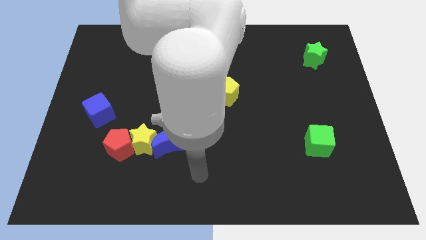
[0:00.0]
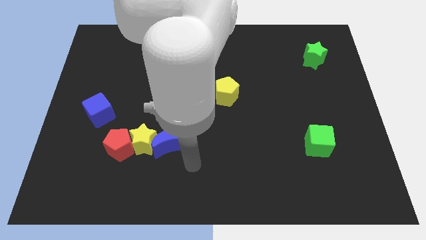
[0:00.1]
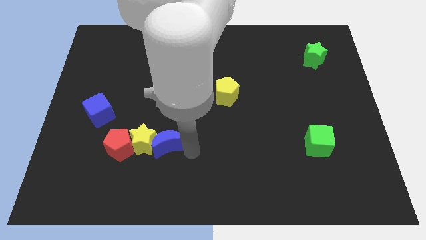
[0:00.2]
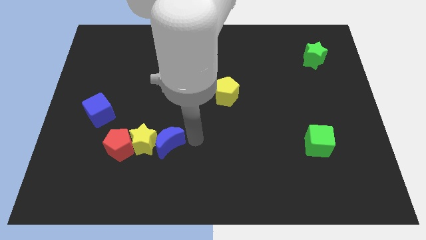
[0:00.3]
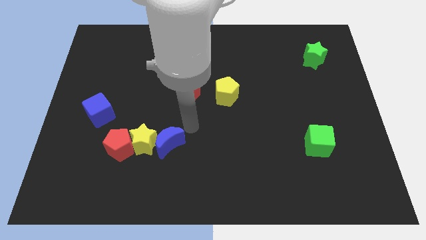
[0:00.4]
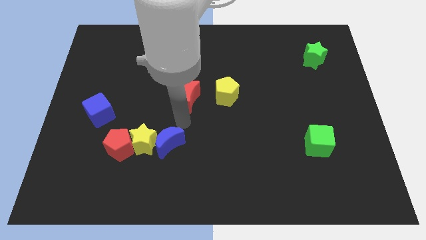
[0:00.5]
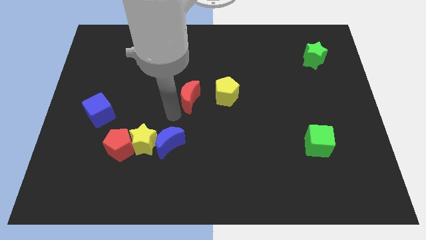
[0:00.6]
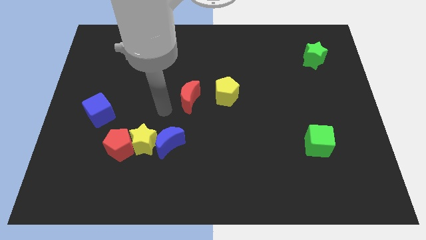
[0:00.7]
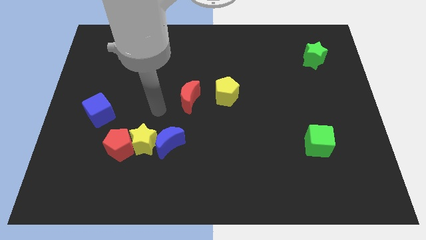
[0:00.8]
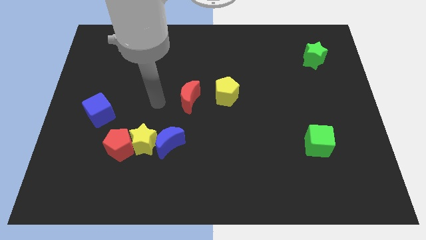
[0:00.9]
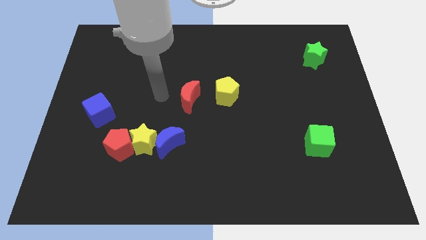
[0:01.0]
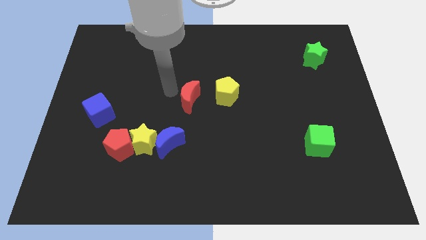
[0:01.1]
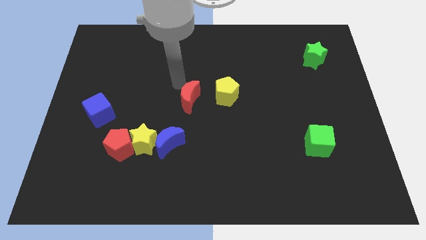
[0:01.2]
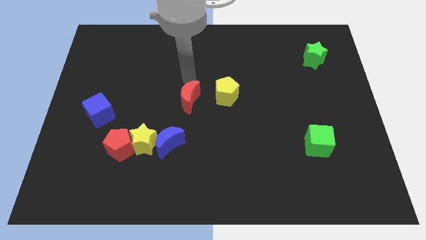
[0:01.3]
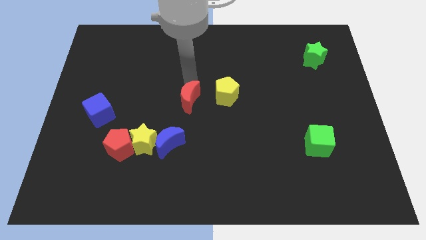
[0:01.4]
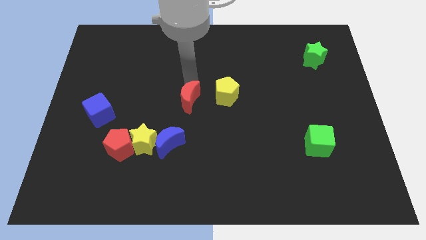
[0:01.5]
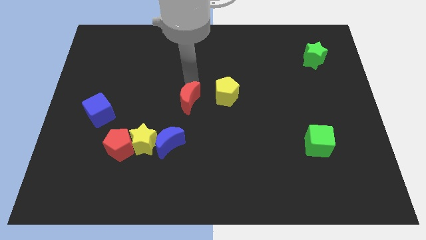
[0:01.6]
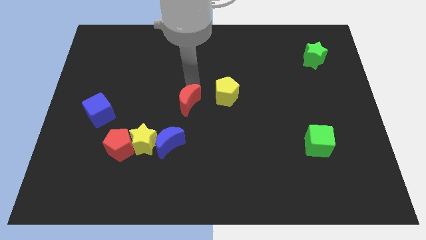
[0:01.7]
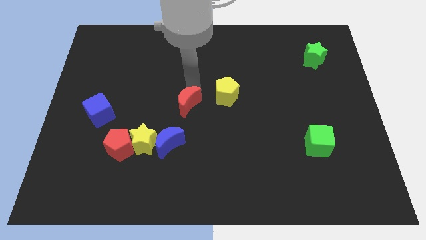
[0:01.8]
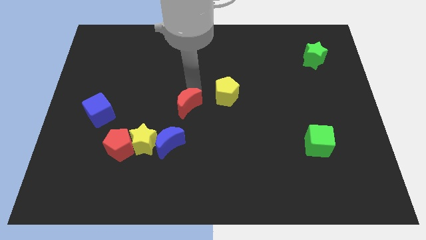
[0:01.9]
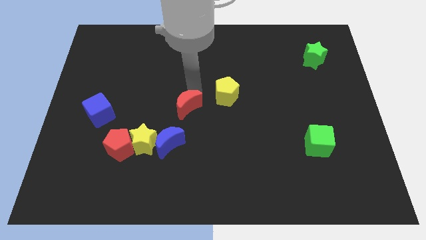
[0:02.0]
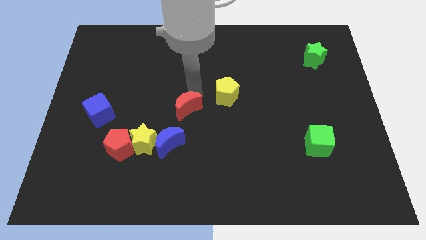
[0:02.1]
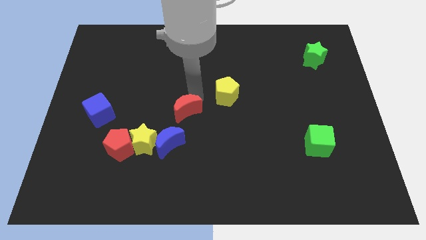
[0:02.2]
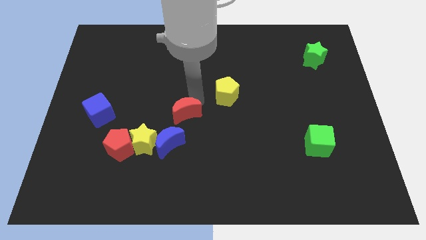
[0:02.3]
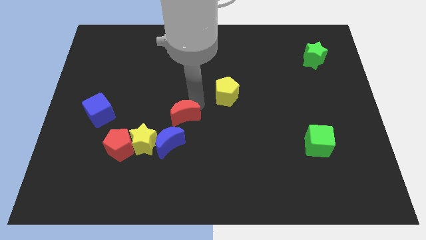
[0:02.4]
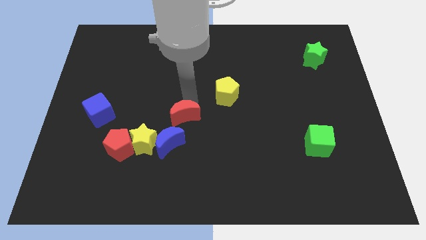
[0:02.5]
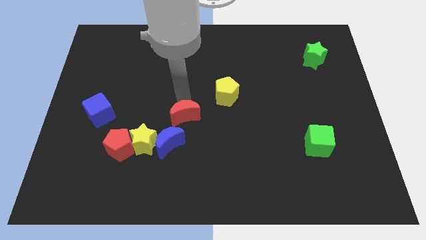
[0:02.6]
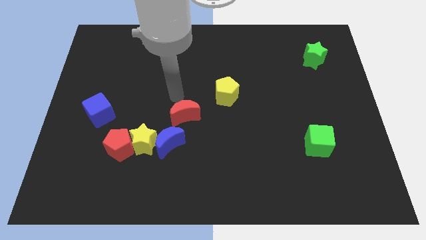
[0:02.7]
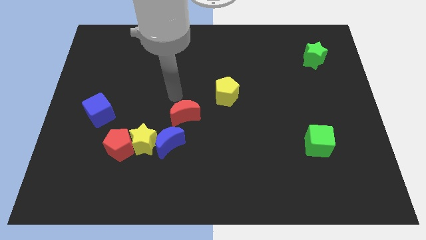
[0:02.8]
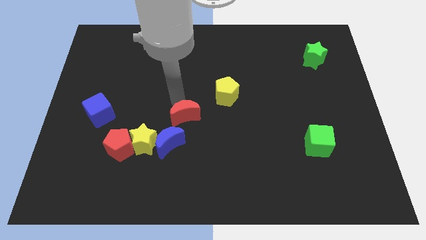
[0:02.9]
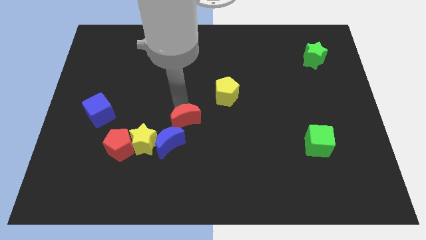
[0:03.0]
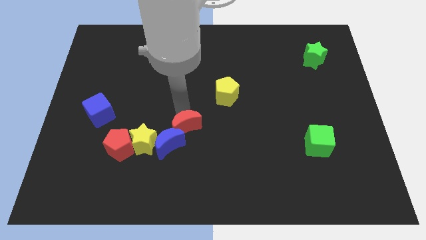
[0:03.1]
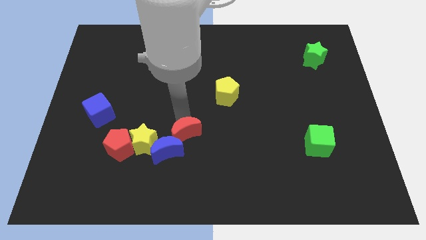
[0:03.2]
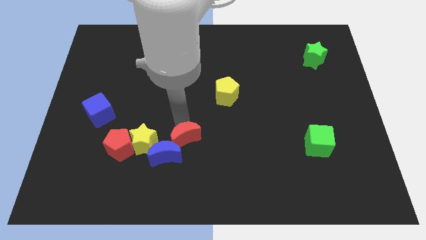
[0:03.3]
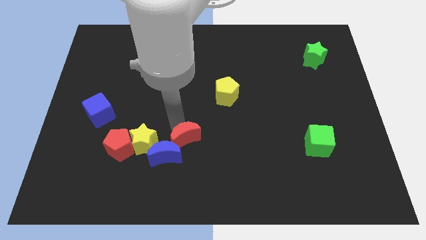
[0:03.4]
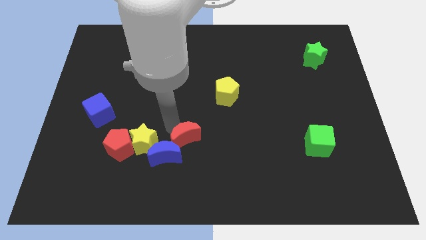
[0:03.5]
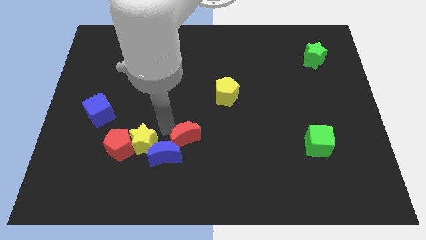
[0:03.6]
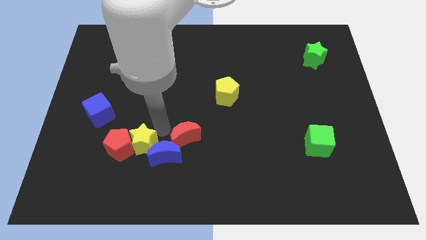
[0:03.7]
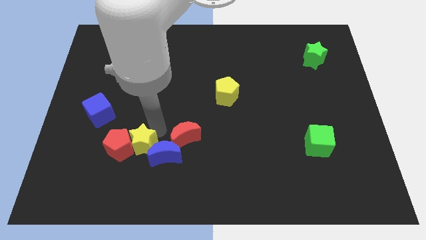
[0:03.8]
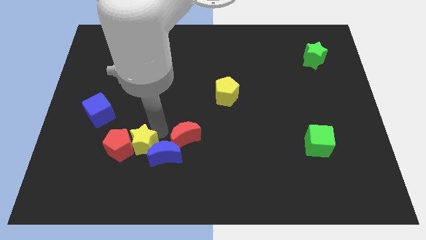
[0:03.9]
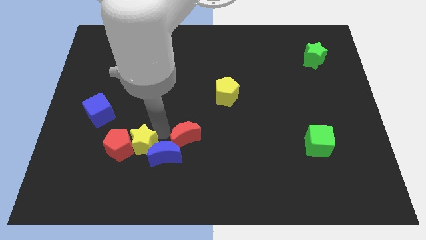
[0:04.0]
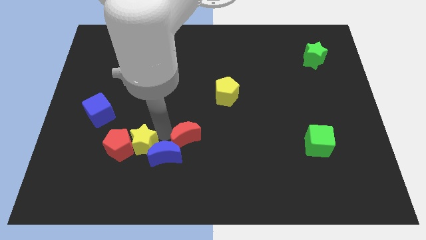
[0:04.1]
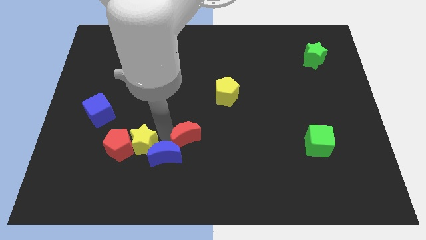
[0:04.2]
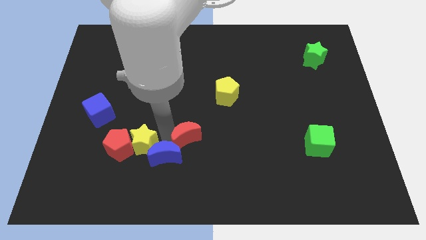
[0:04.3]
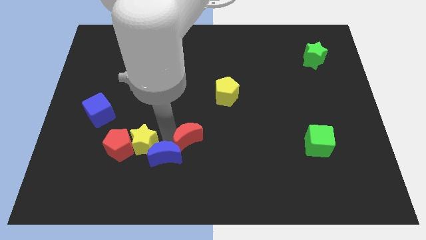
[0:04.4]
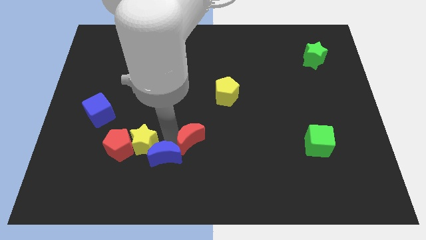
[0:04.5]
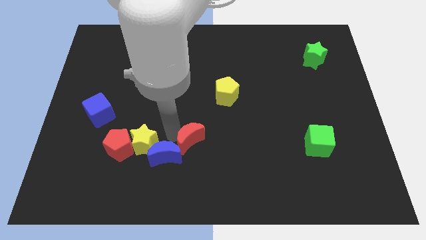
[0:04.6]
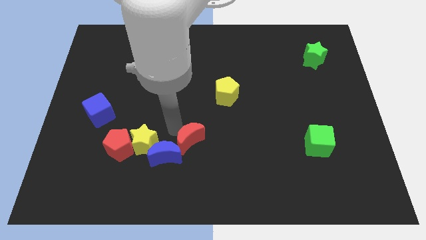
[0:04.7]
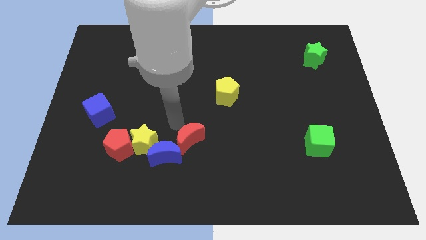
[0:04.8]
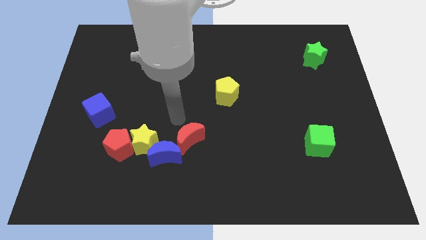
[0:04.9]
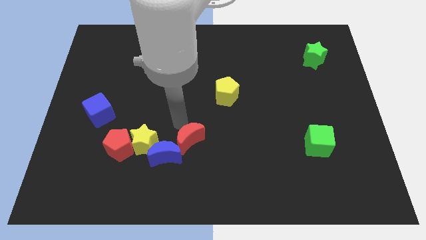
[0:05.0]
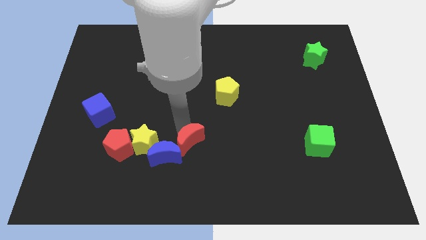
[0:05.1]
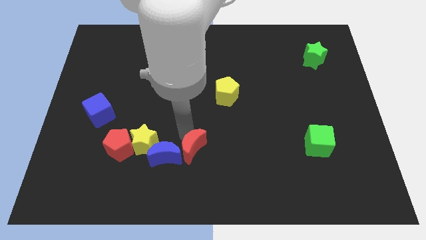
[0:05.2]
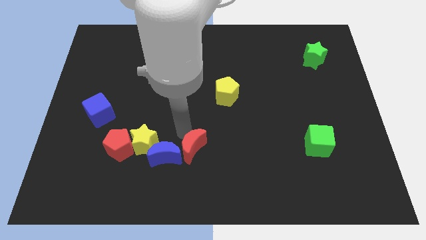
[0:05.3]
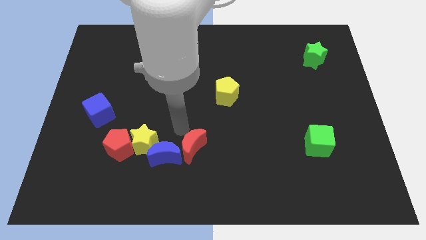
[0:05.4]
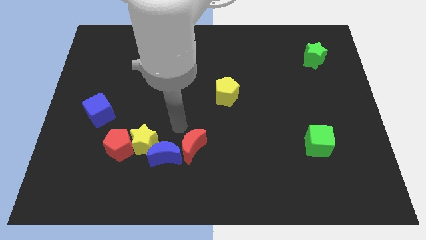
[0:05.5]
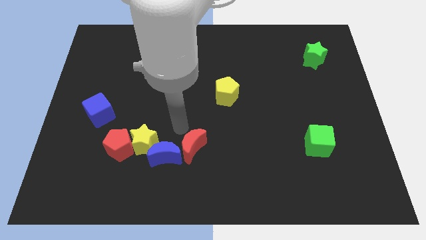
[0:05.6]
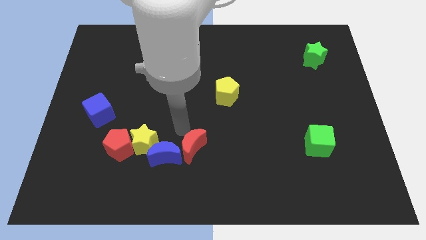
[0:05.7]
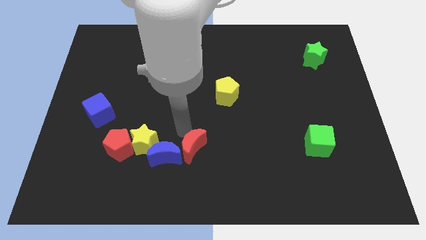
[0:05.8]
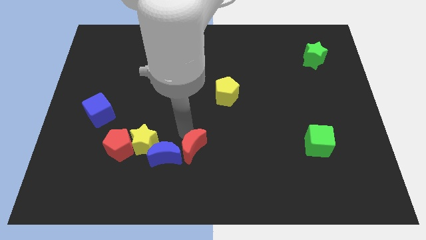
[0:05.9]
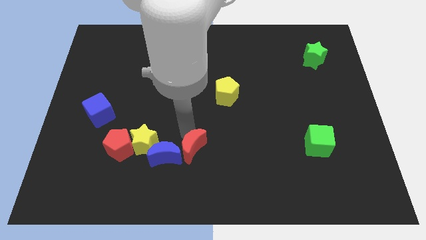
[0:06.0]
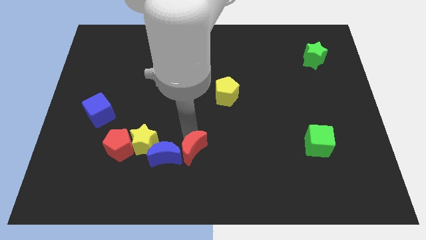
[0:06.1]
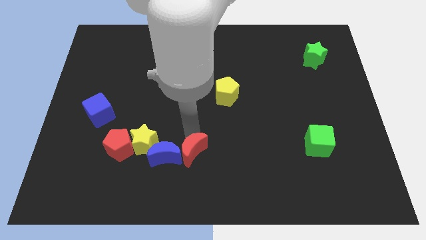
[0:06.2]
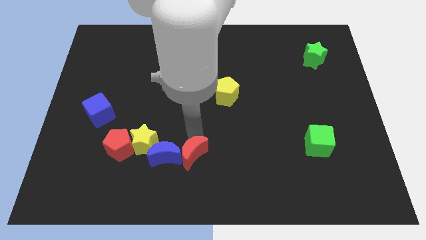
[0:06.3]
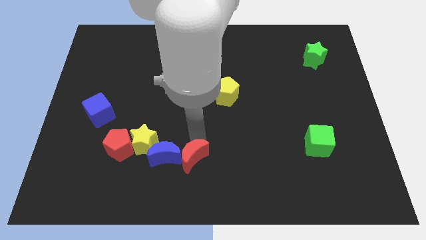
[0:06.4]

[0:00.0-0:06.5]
slide the red moon to the bottom side
